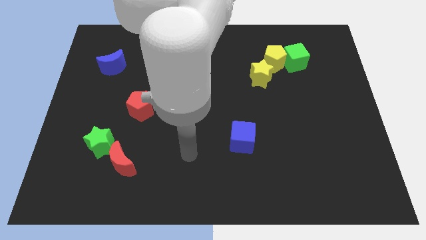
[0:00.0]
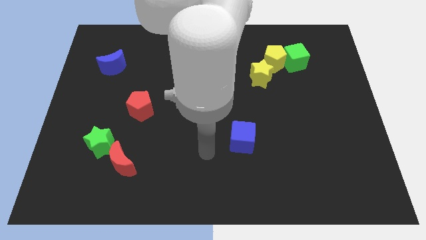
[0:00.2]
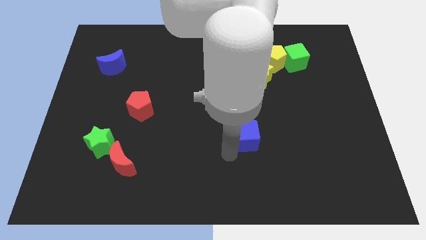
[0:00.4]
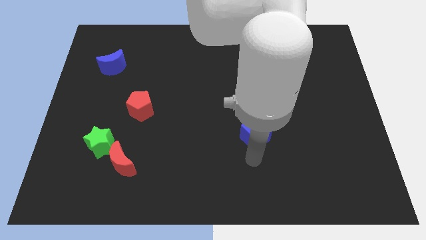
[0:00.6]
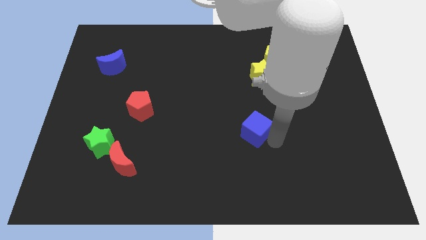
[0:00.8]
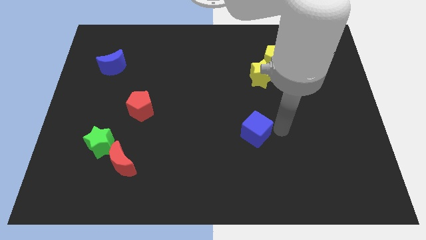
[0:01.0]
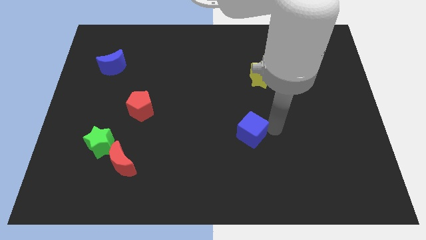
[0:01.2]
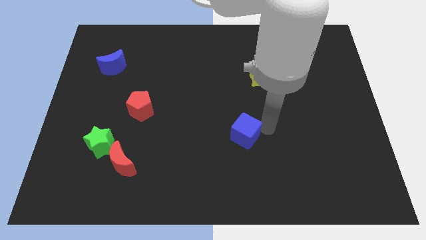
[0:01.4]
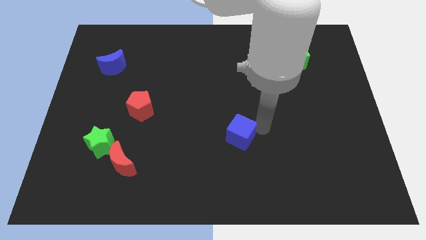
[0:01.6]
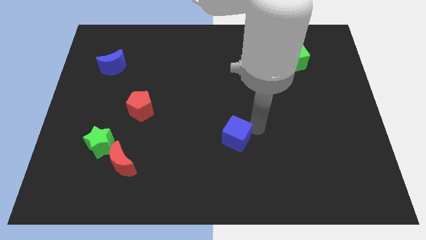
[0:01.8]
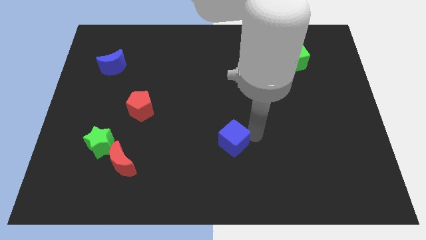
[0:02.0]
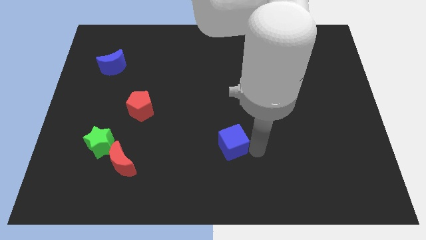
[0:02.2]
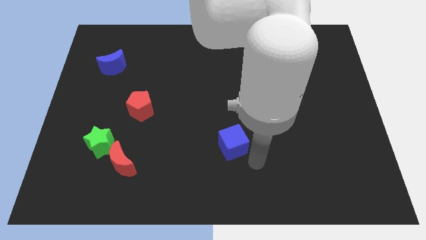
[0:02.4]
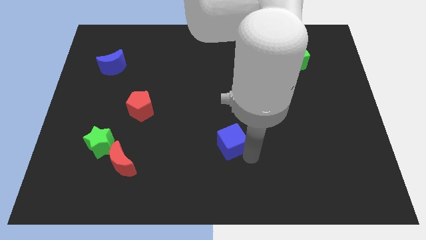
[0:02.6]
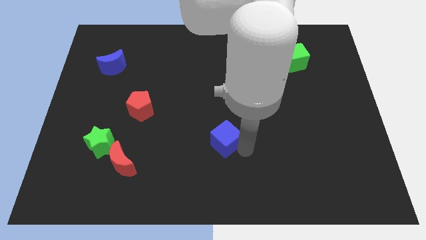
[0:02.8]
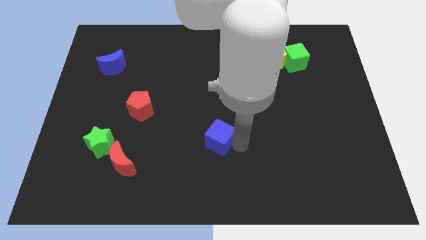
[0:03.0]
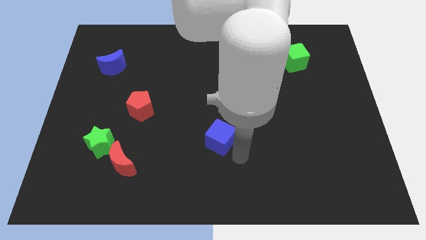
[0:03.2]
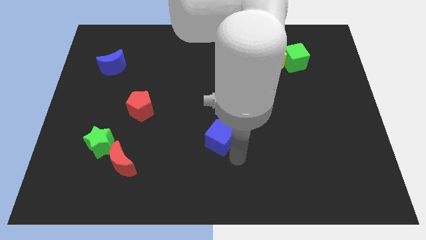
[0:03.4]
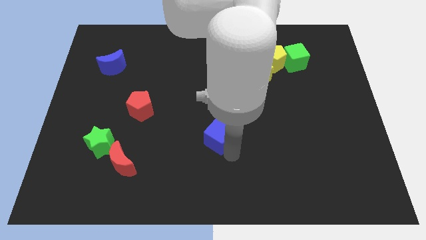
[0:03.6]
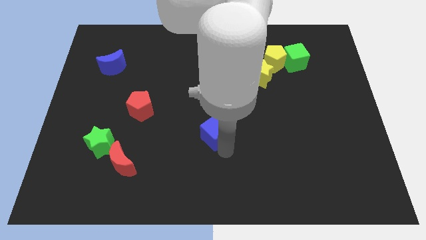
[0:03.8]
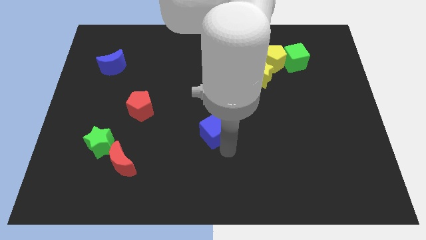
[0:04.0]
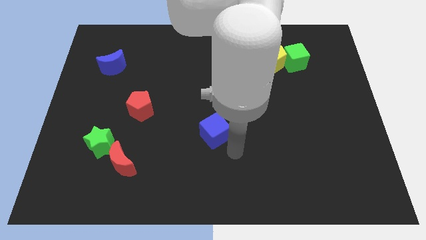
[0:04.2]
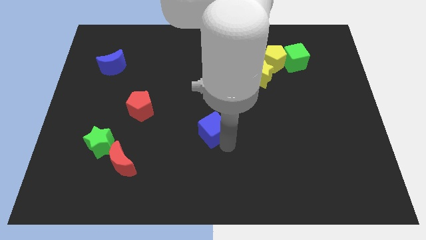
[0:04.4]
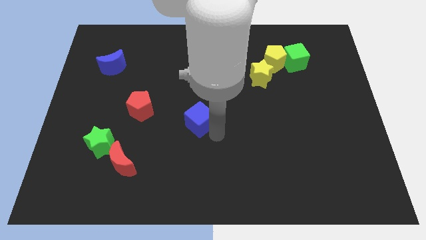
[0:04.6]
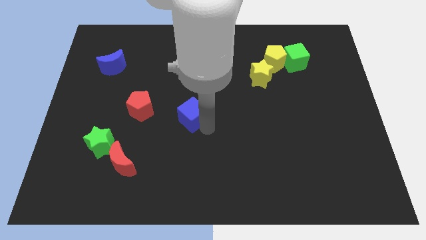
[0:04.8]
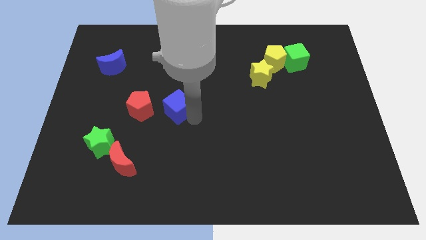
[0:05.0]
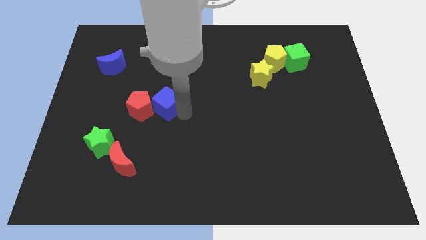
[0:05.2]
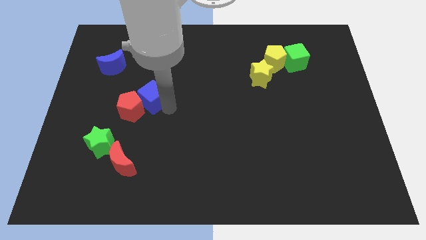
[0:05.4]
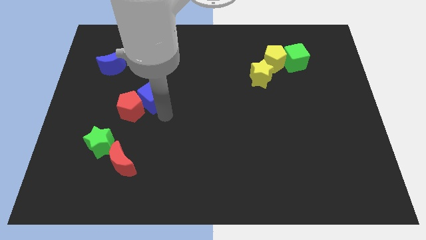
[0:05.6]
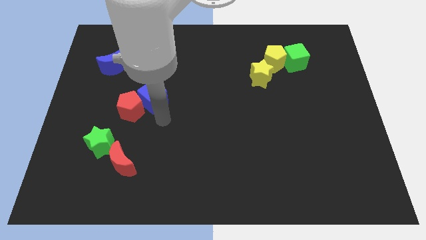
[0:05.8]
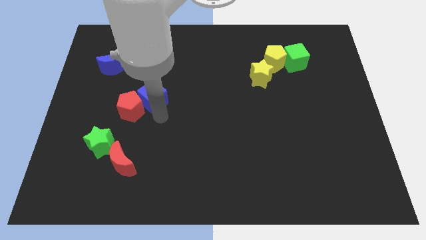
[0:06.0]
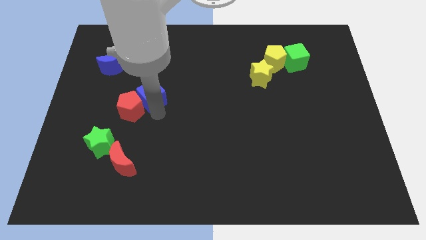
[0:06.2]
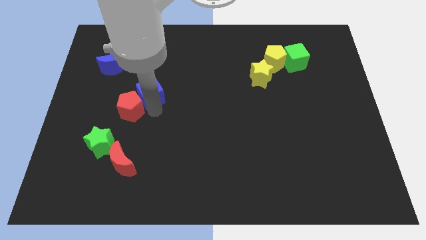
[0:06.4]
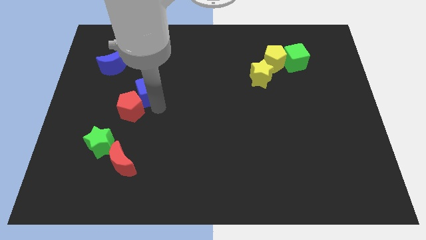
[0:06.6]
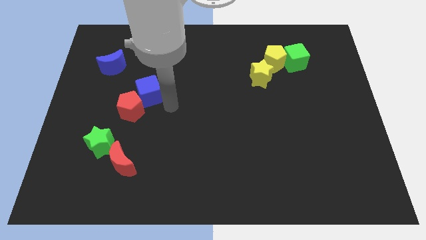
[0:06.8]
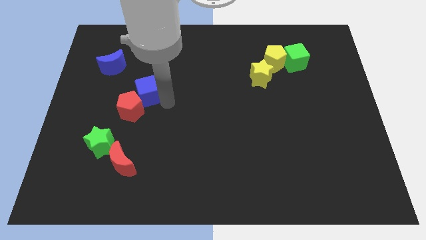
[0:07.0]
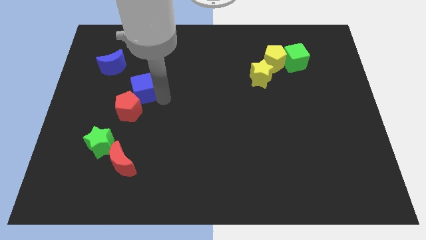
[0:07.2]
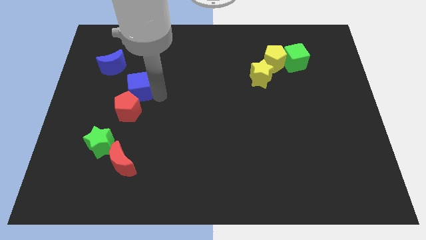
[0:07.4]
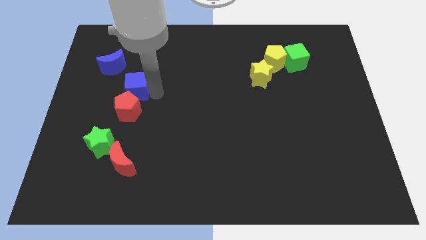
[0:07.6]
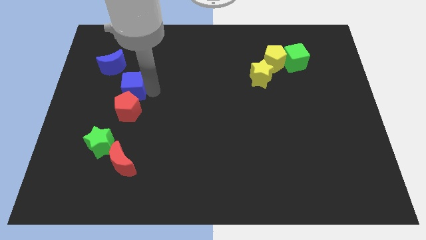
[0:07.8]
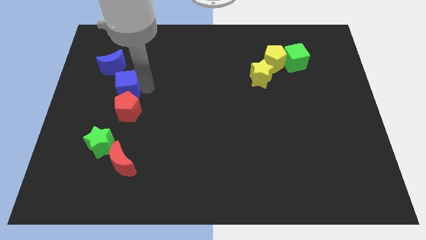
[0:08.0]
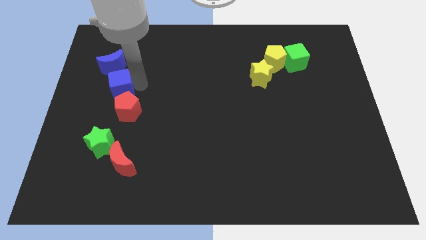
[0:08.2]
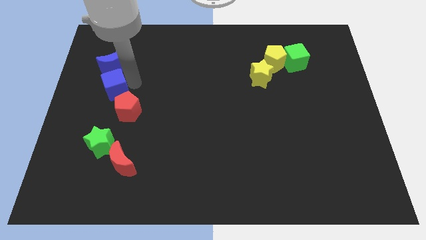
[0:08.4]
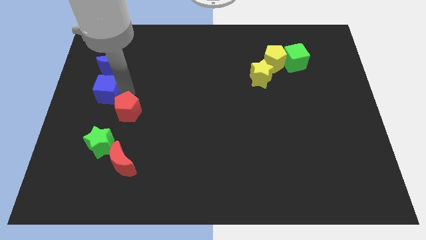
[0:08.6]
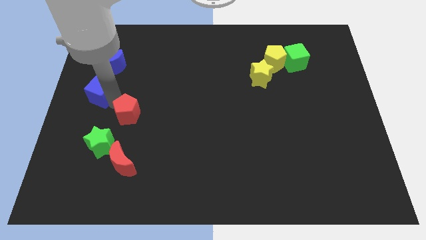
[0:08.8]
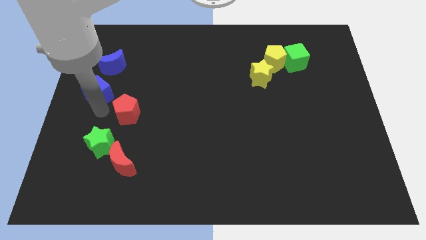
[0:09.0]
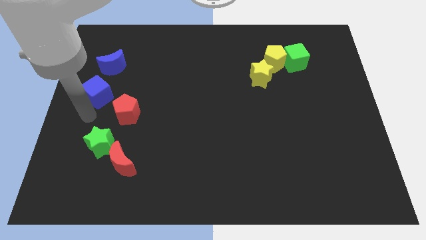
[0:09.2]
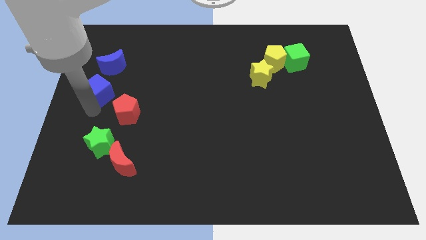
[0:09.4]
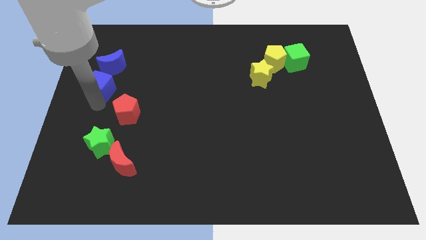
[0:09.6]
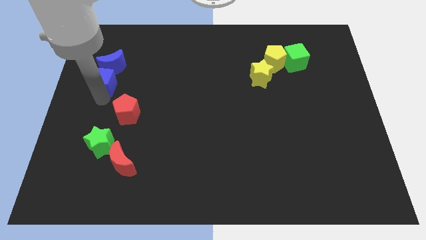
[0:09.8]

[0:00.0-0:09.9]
slide the blue cube close to the blue moon

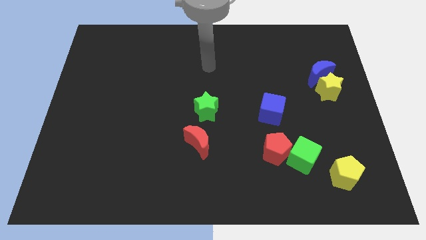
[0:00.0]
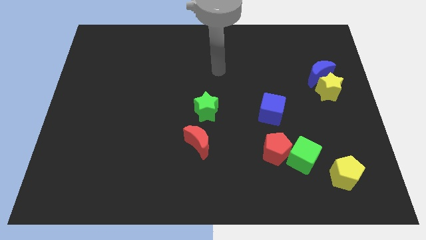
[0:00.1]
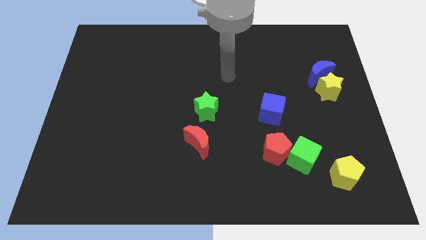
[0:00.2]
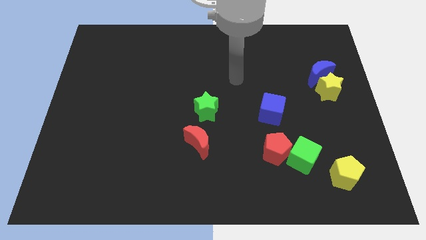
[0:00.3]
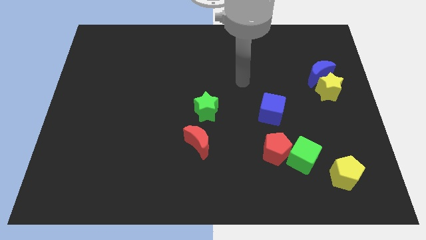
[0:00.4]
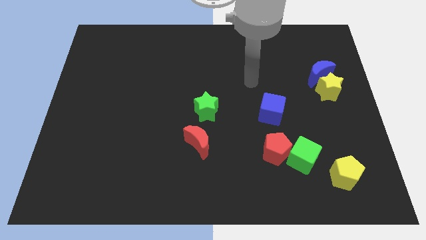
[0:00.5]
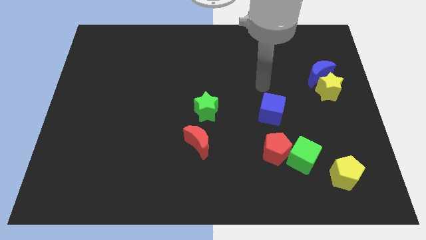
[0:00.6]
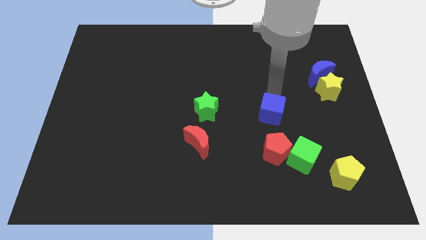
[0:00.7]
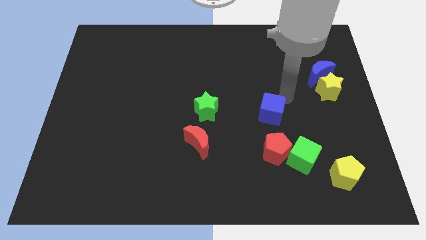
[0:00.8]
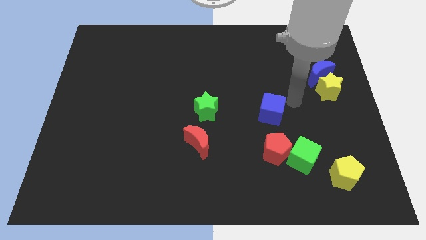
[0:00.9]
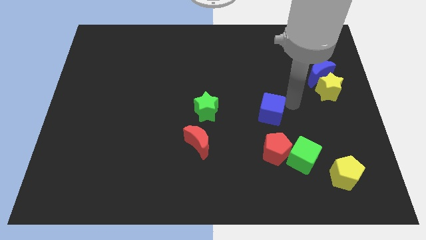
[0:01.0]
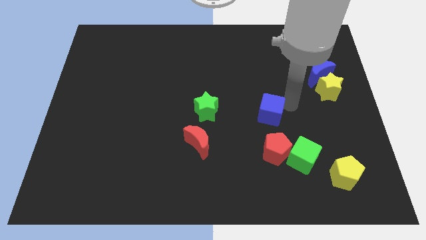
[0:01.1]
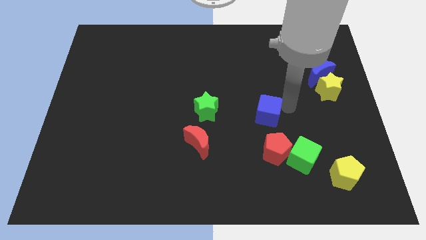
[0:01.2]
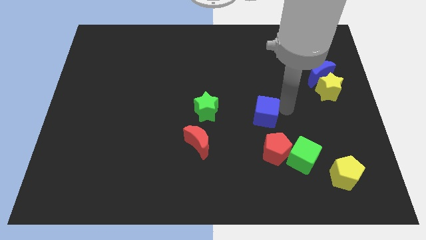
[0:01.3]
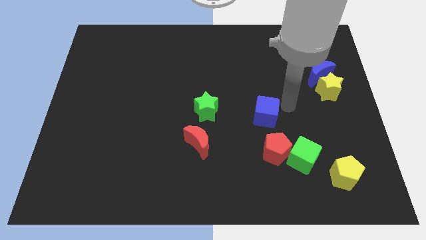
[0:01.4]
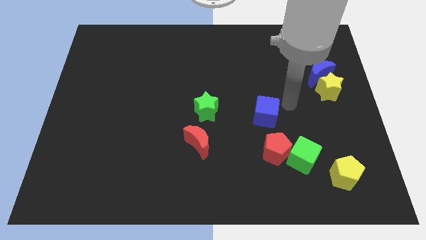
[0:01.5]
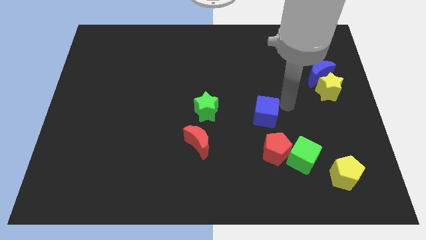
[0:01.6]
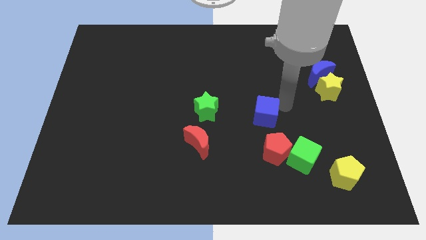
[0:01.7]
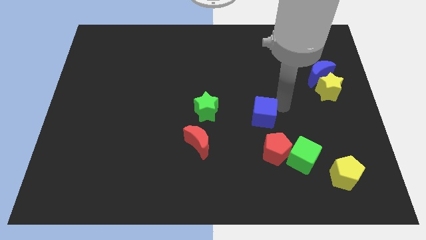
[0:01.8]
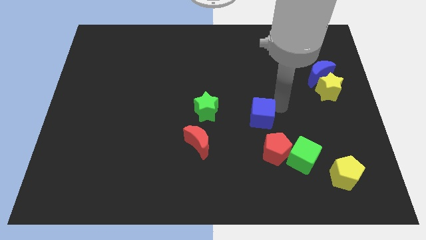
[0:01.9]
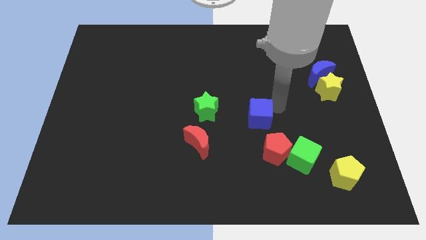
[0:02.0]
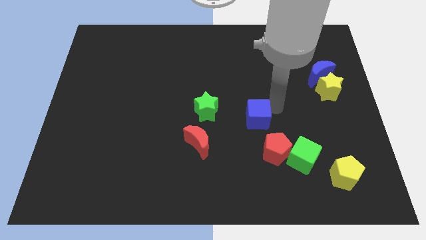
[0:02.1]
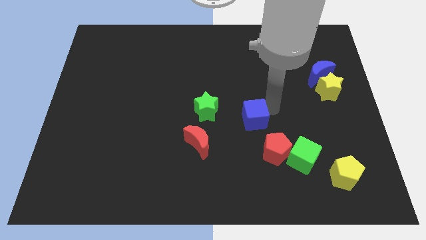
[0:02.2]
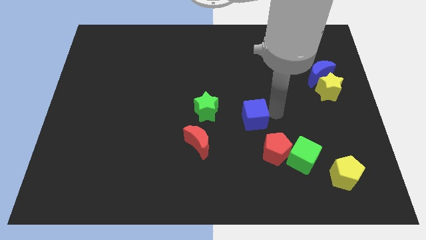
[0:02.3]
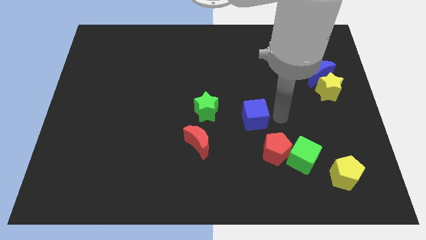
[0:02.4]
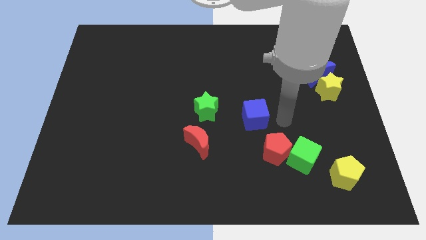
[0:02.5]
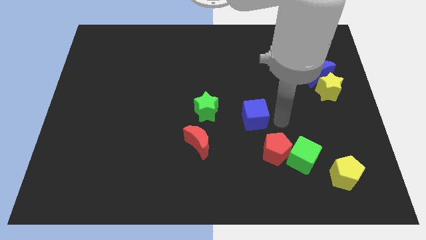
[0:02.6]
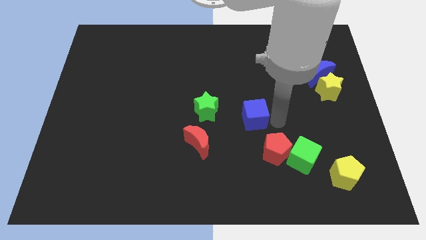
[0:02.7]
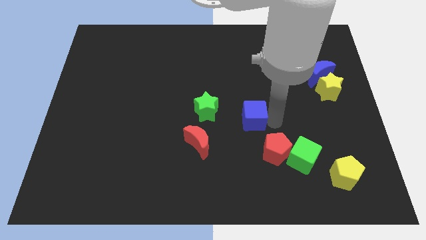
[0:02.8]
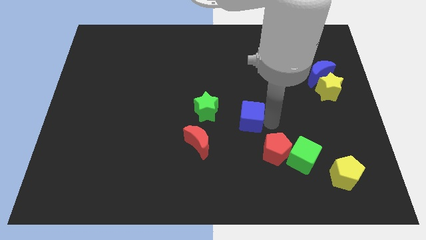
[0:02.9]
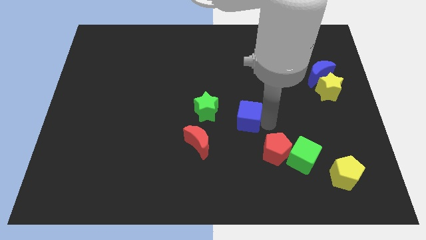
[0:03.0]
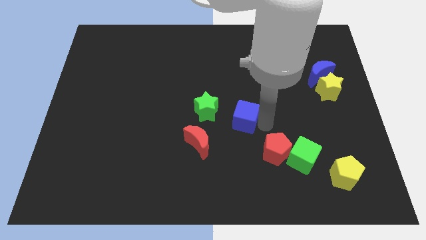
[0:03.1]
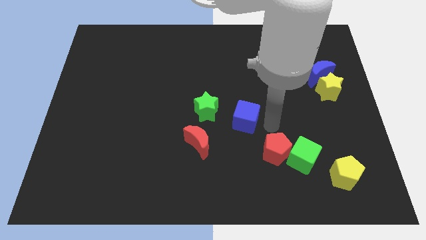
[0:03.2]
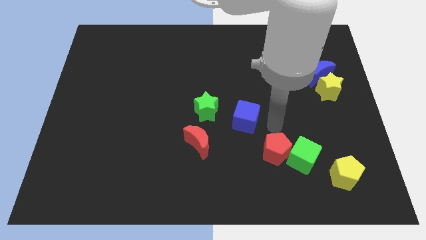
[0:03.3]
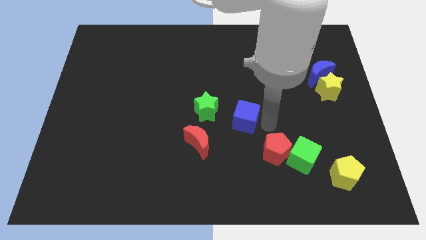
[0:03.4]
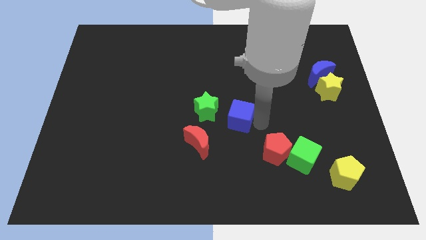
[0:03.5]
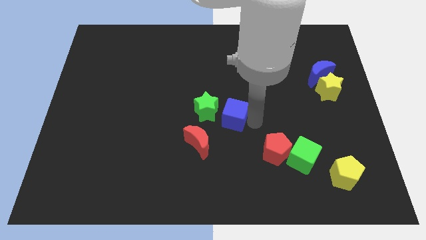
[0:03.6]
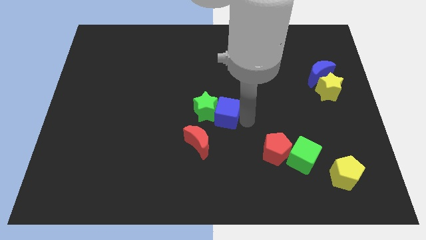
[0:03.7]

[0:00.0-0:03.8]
put the blue cube to the green star
